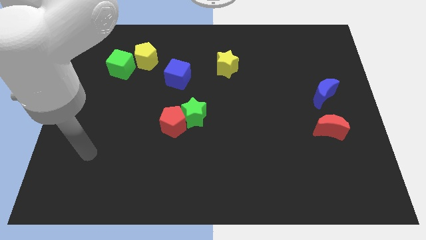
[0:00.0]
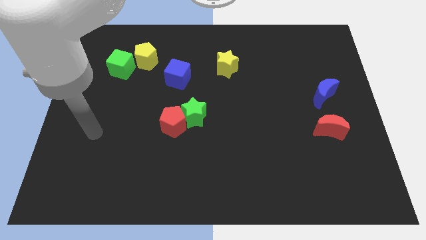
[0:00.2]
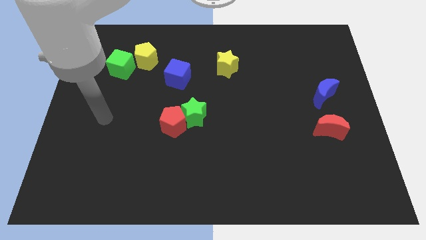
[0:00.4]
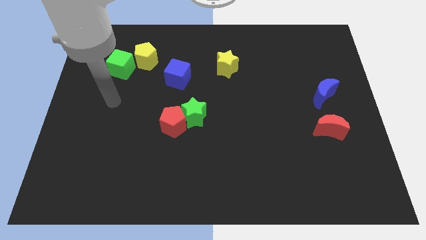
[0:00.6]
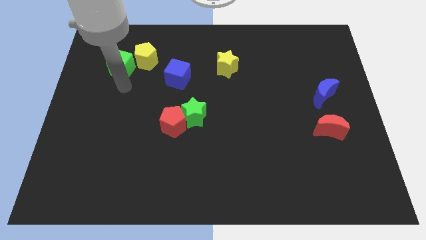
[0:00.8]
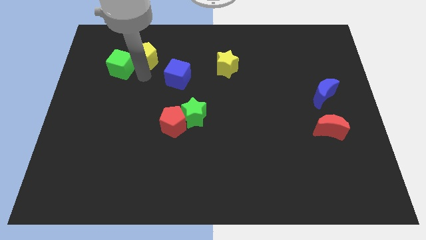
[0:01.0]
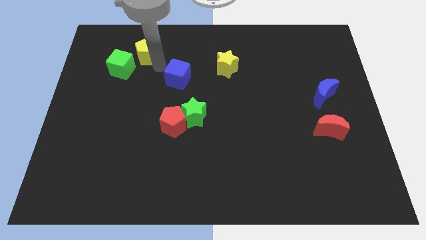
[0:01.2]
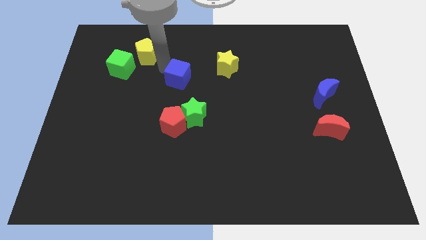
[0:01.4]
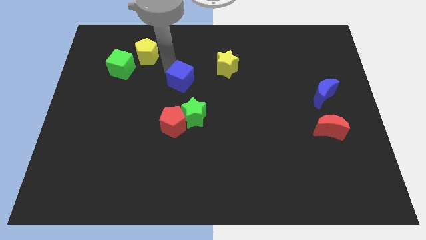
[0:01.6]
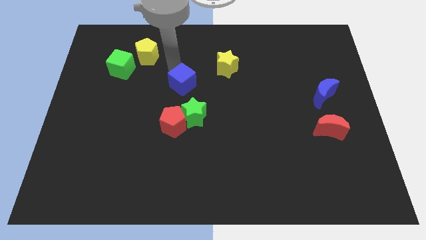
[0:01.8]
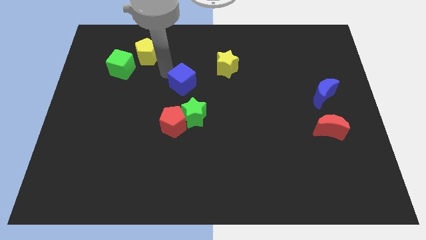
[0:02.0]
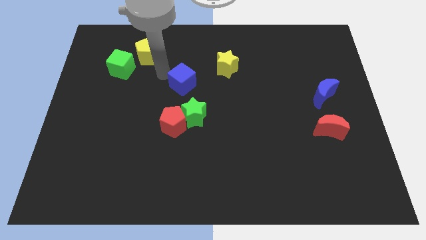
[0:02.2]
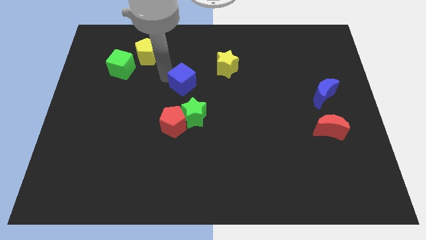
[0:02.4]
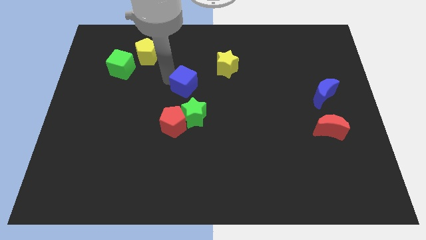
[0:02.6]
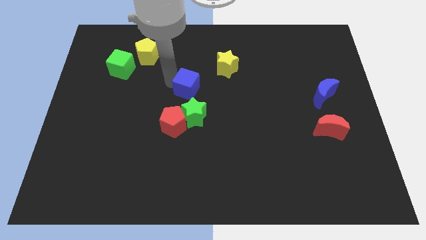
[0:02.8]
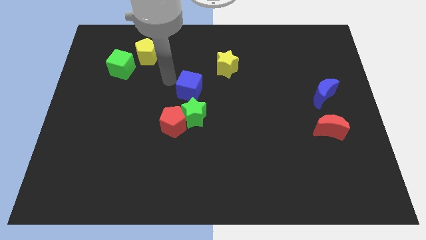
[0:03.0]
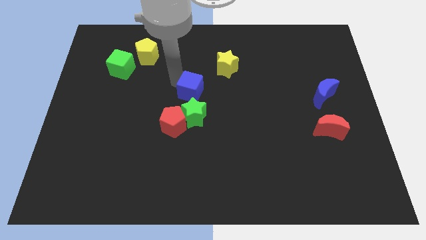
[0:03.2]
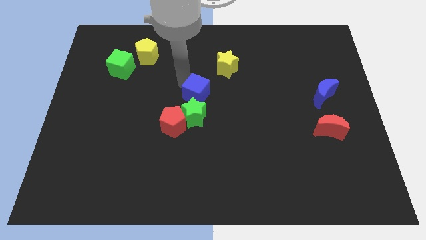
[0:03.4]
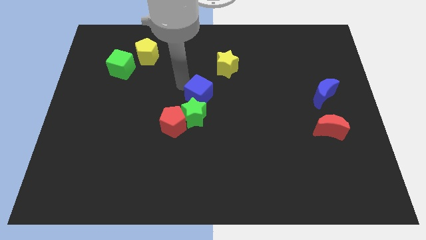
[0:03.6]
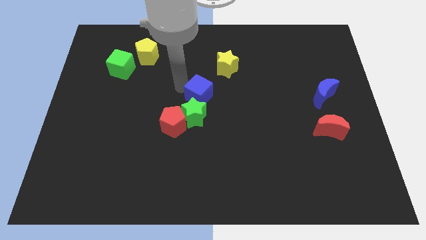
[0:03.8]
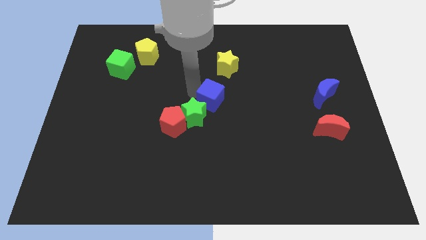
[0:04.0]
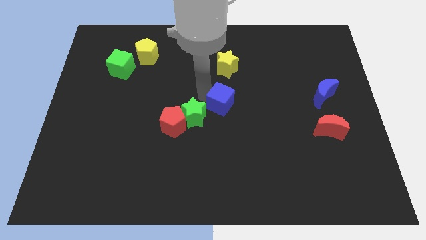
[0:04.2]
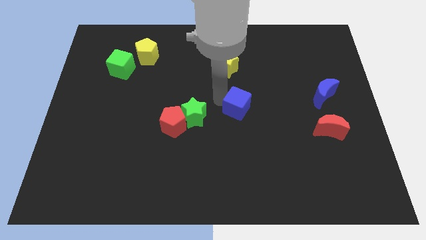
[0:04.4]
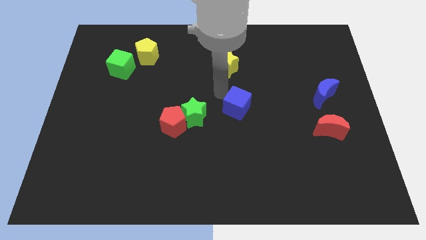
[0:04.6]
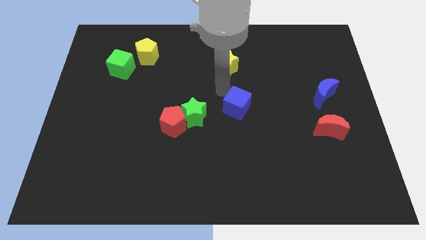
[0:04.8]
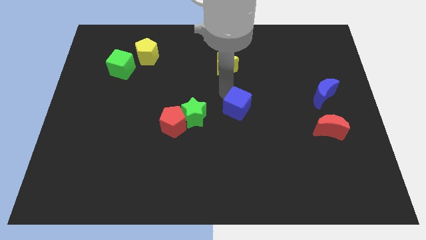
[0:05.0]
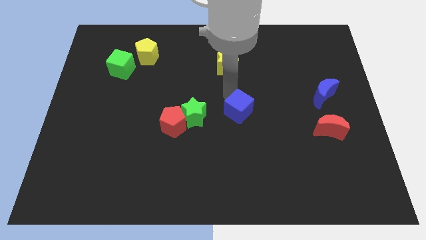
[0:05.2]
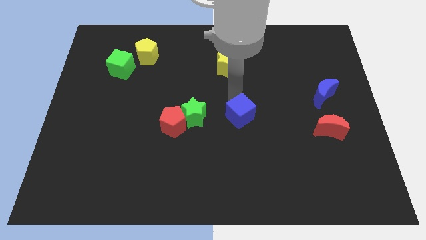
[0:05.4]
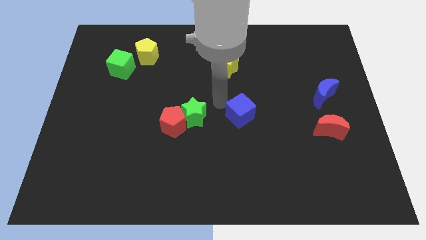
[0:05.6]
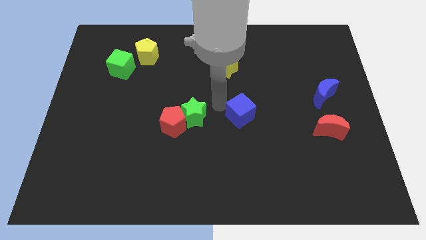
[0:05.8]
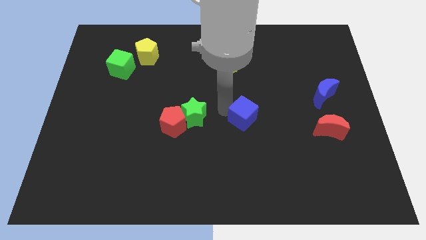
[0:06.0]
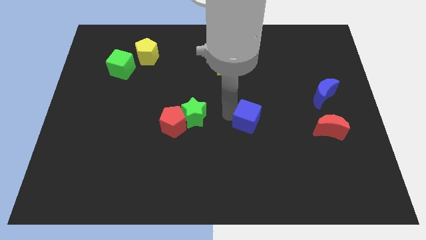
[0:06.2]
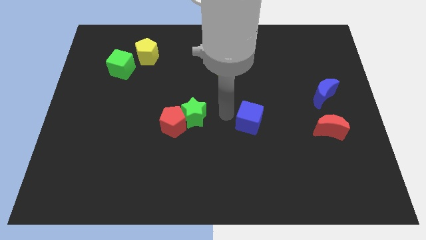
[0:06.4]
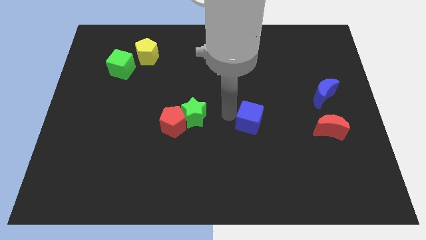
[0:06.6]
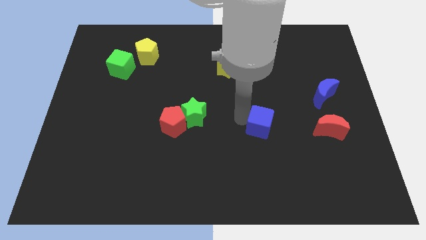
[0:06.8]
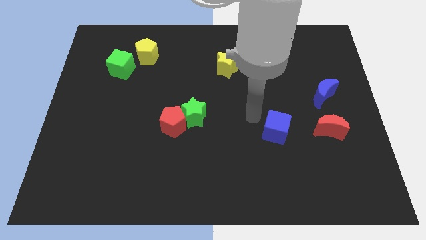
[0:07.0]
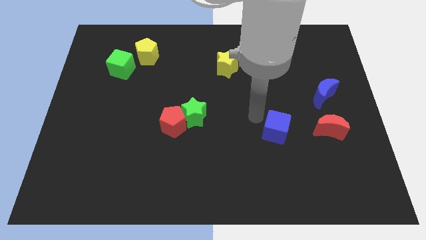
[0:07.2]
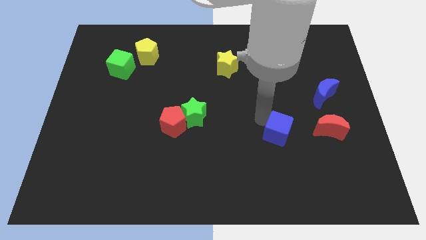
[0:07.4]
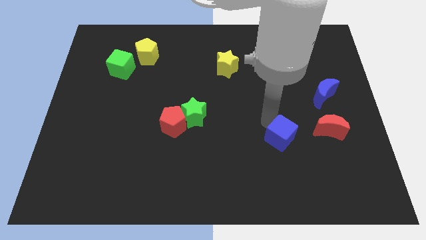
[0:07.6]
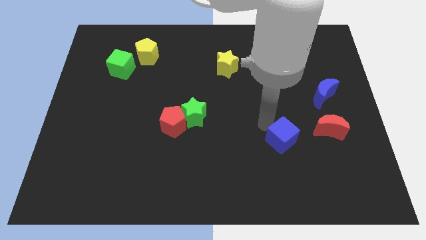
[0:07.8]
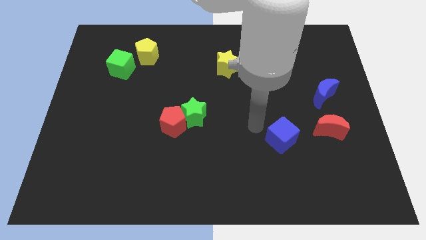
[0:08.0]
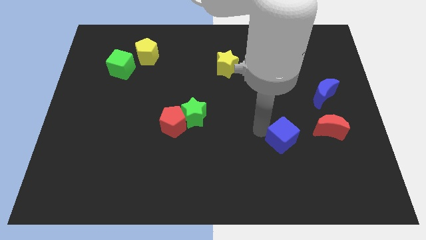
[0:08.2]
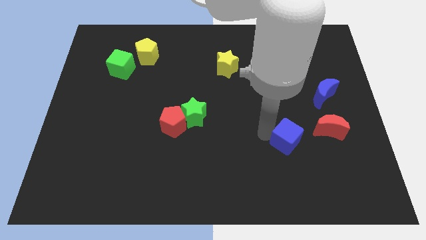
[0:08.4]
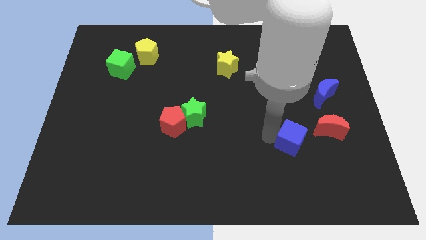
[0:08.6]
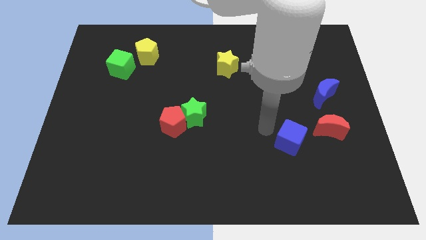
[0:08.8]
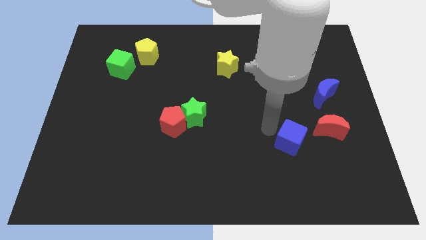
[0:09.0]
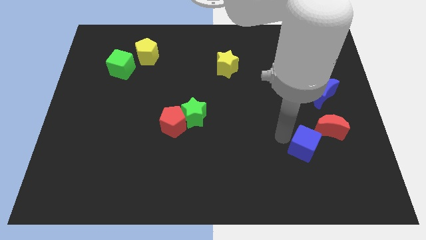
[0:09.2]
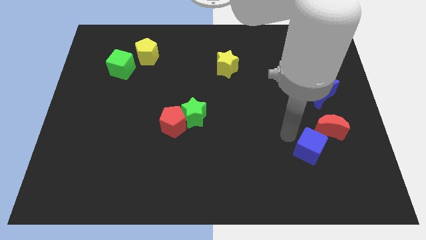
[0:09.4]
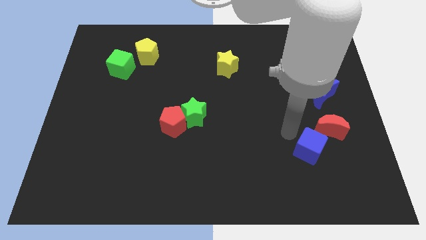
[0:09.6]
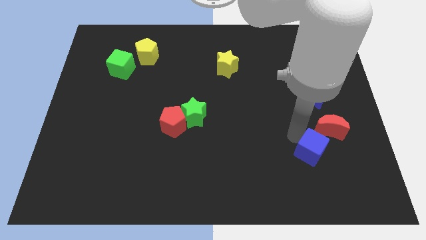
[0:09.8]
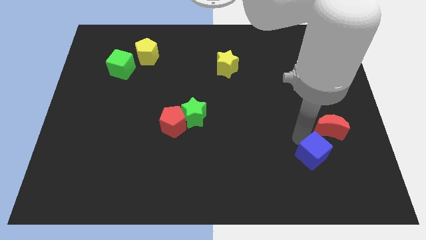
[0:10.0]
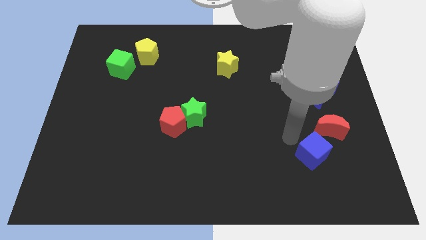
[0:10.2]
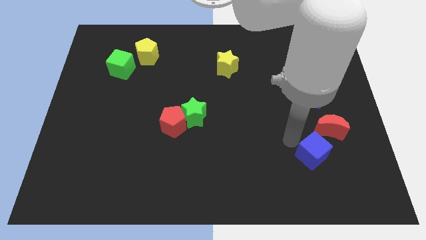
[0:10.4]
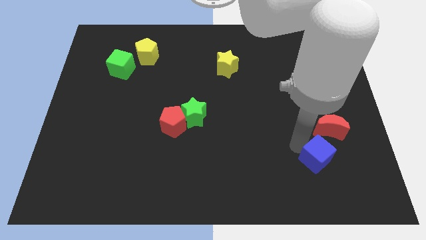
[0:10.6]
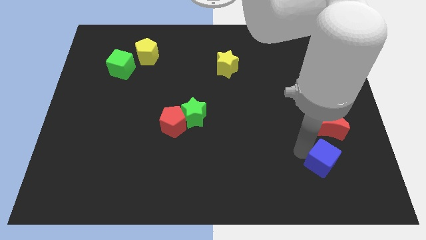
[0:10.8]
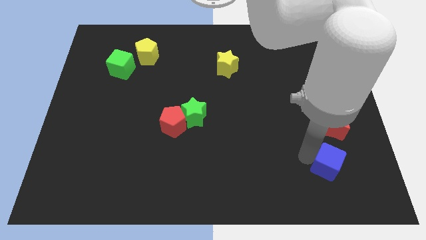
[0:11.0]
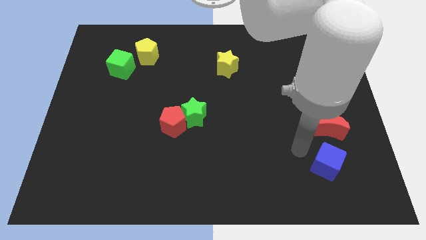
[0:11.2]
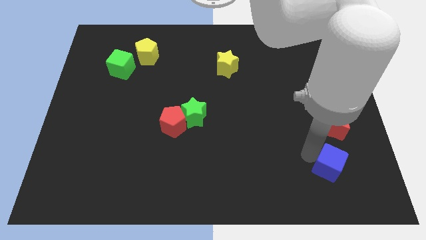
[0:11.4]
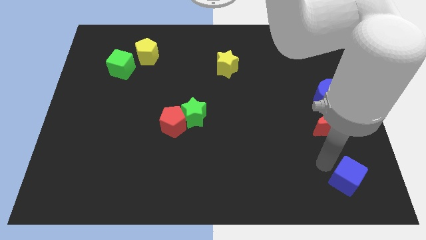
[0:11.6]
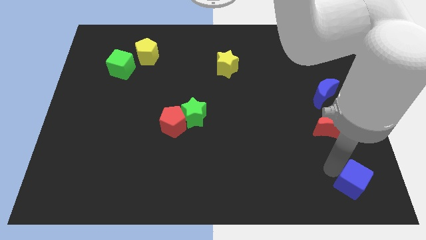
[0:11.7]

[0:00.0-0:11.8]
move the blue cube to the lower right corner
